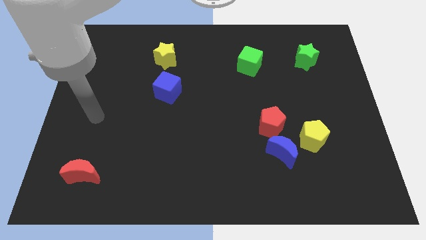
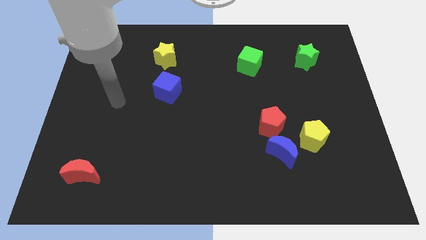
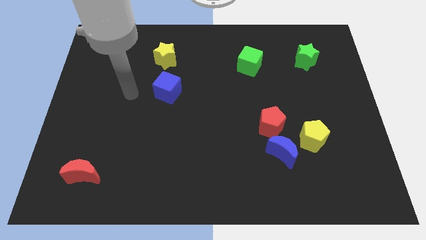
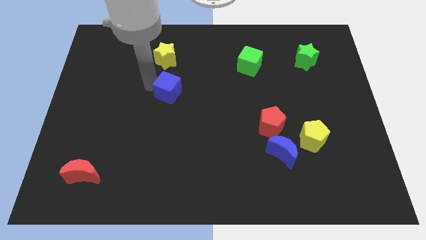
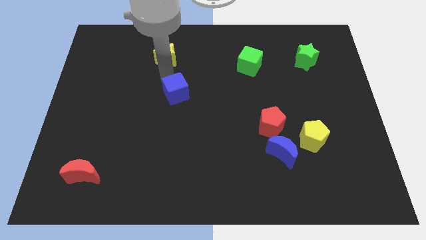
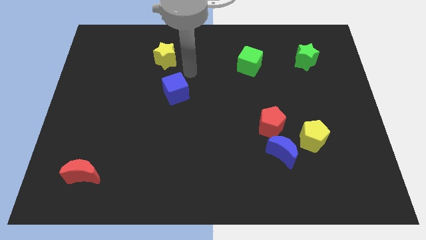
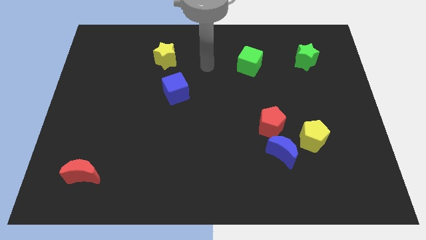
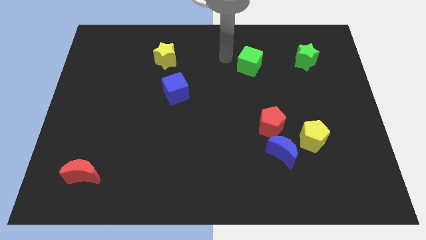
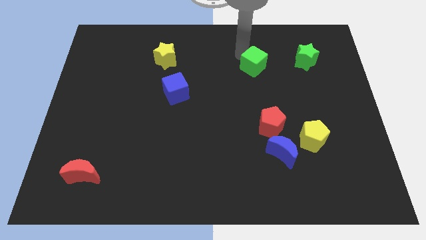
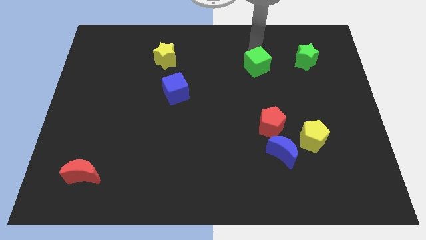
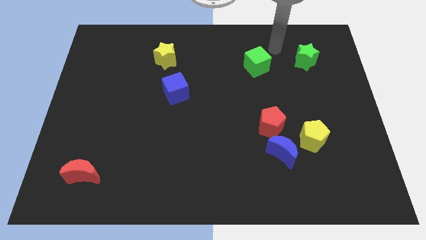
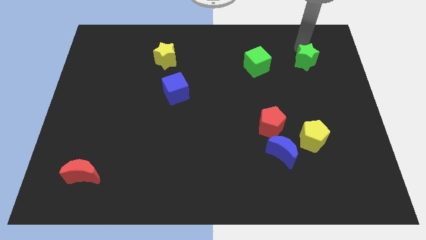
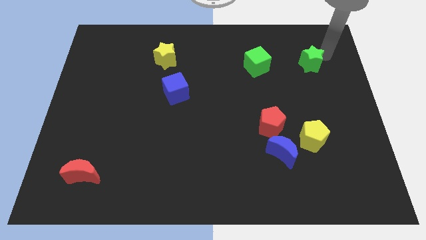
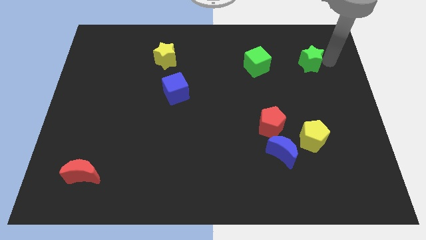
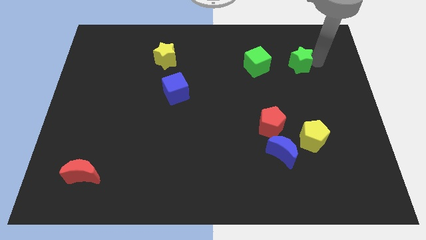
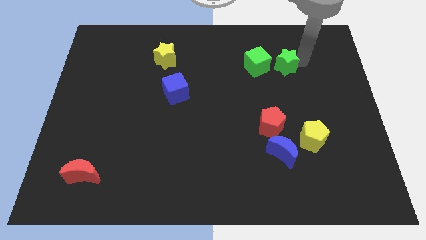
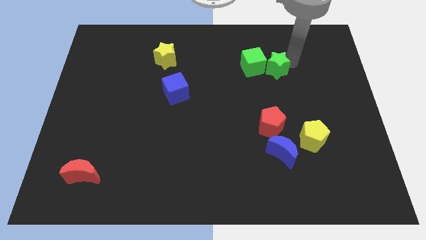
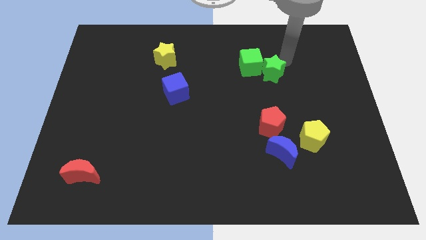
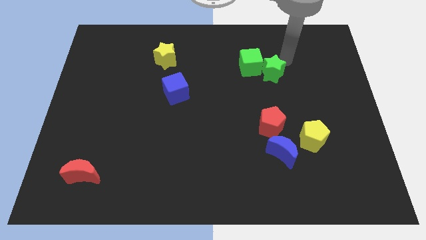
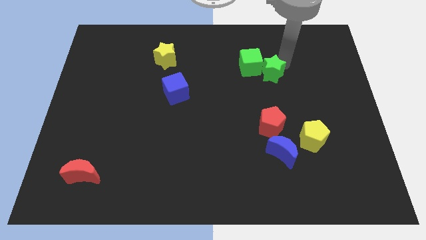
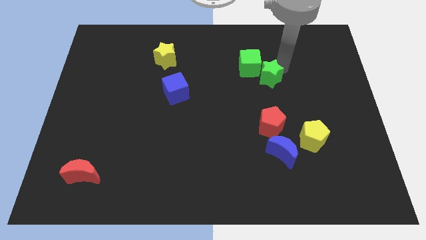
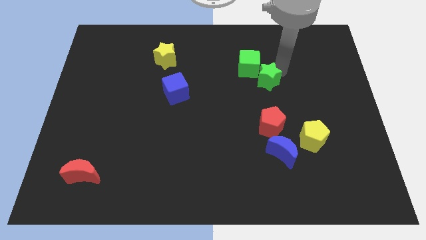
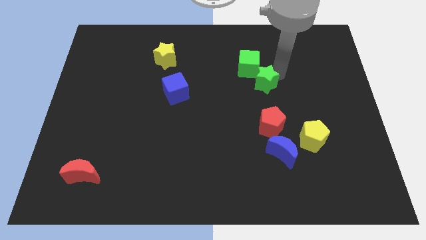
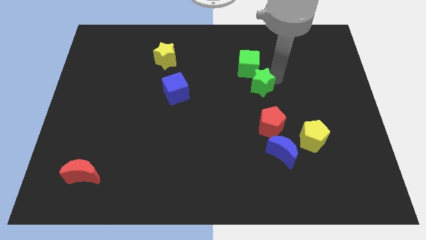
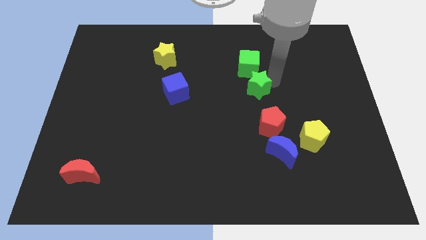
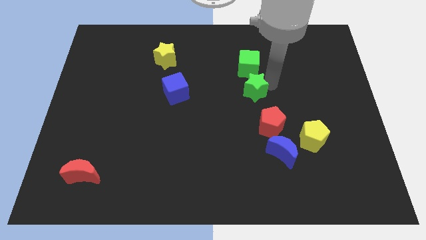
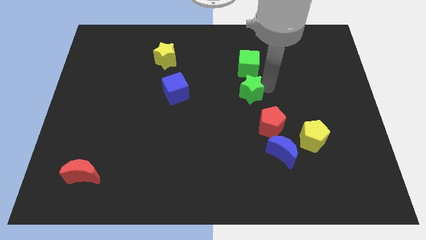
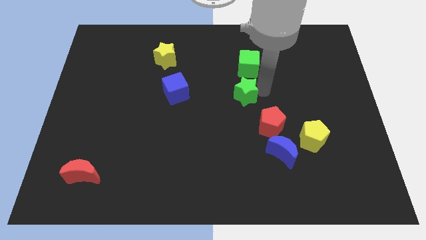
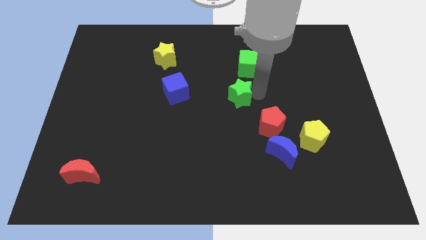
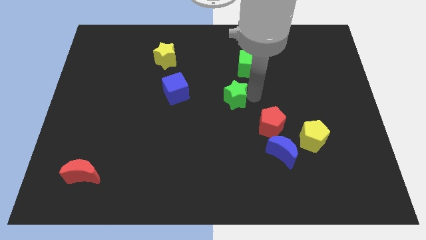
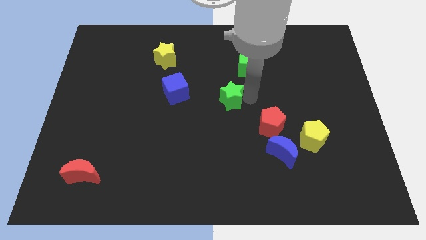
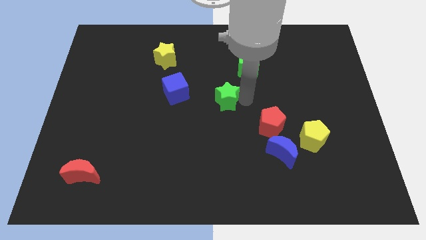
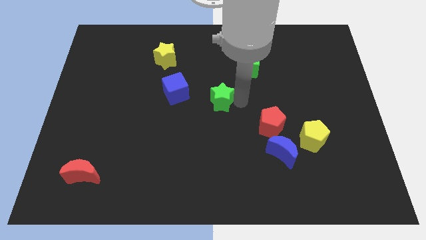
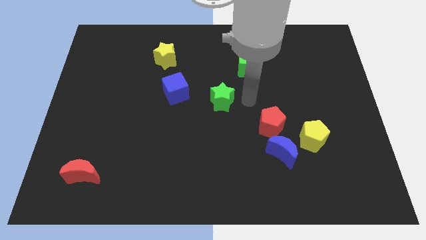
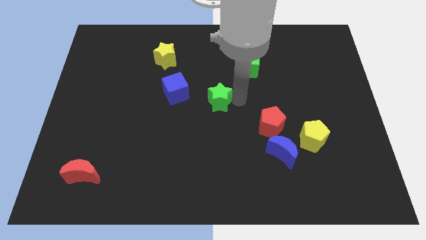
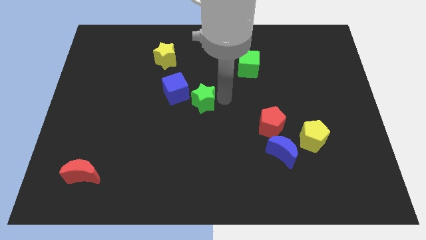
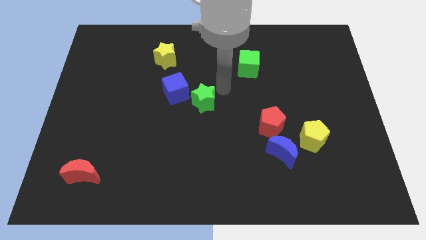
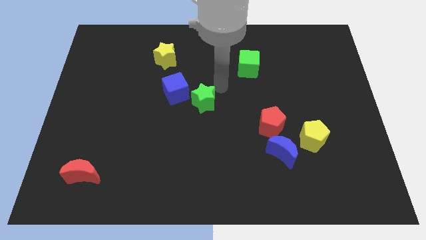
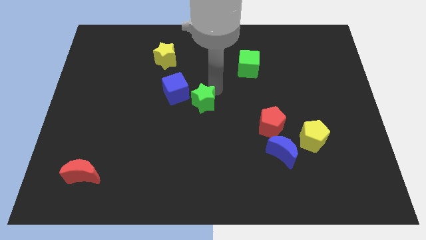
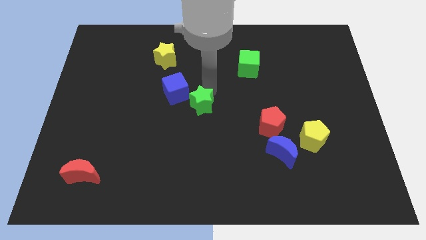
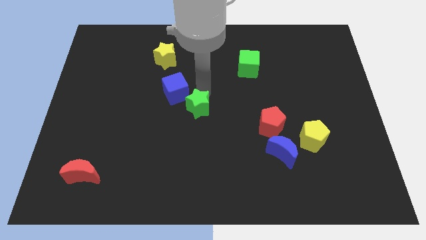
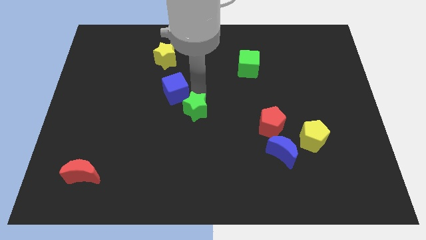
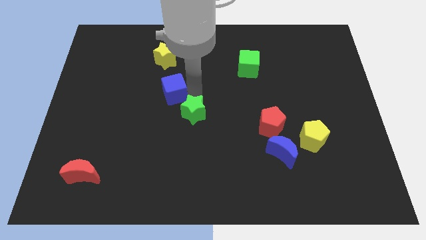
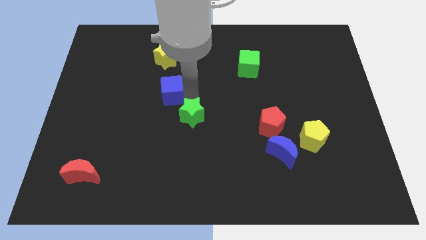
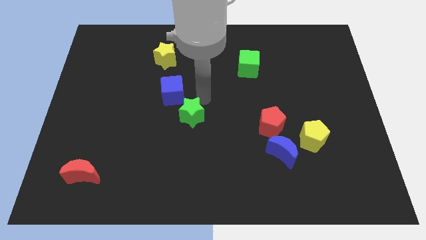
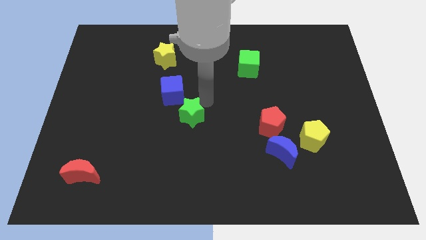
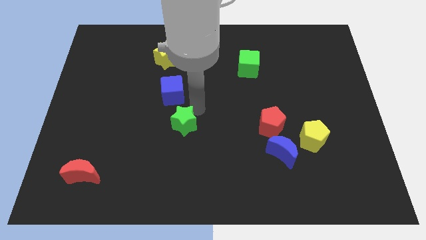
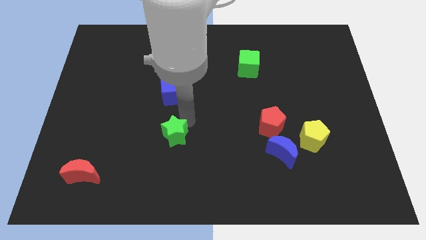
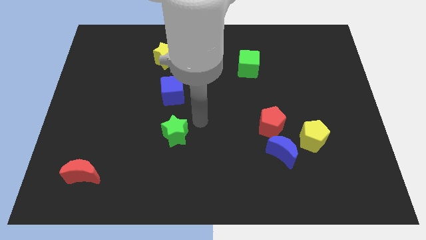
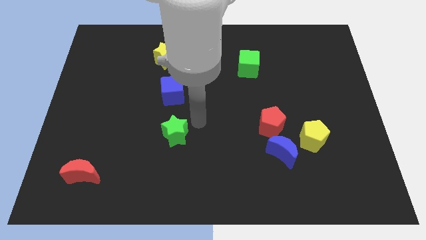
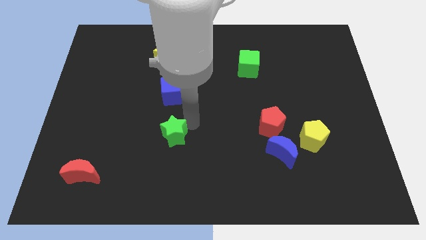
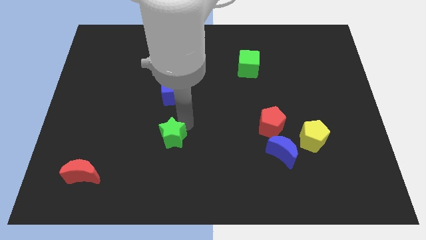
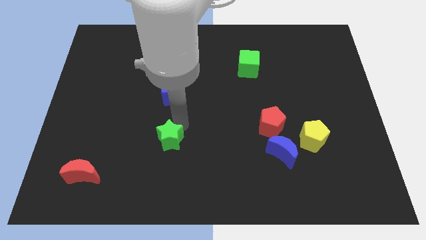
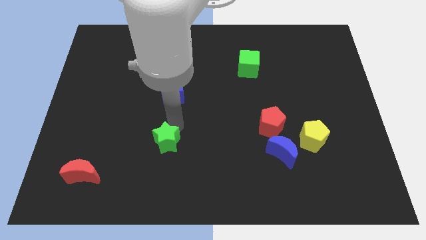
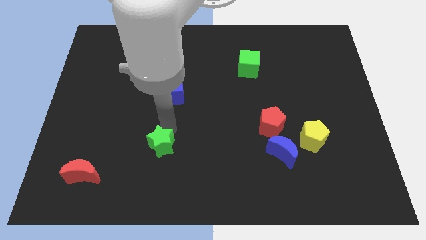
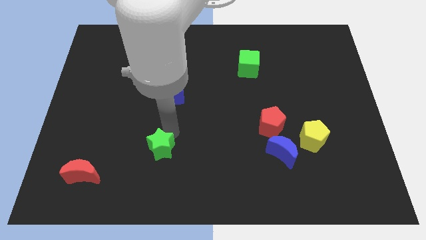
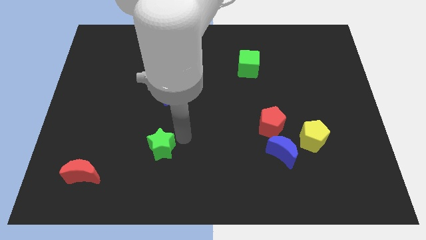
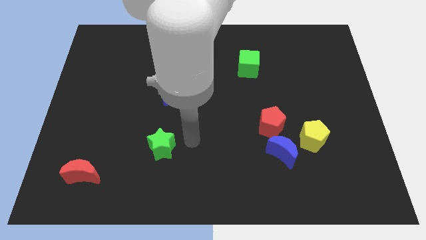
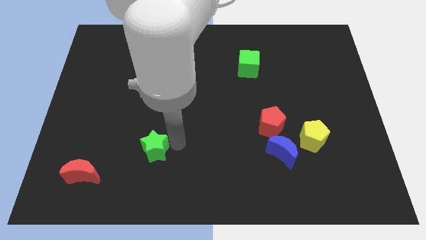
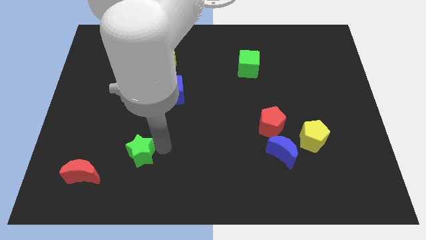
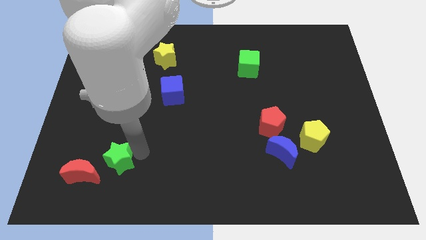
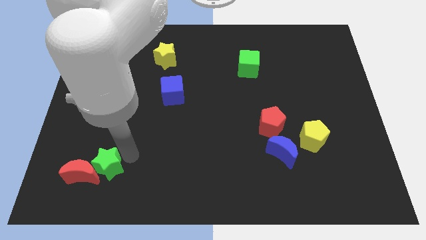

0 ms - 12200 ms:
slide the green star close to the red moon

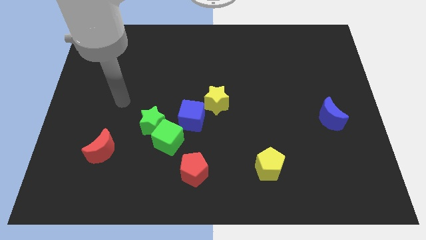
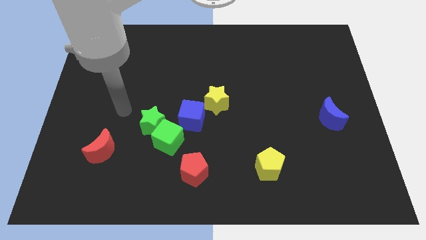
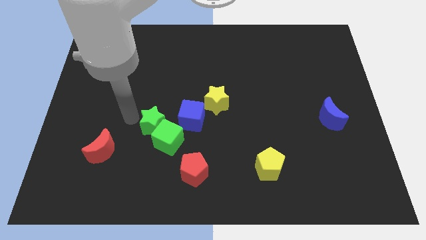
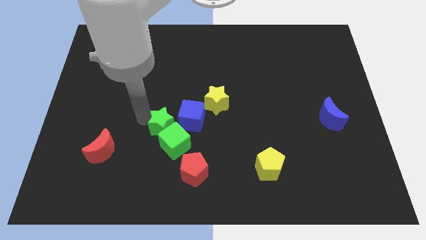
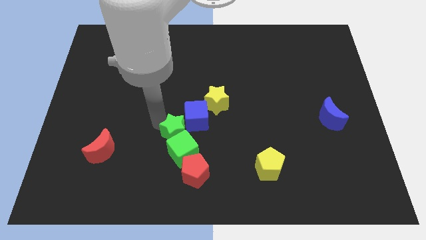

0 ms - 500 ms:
move the green cube towards the red pentagon

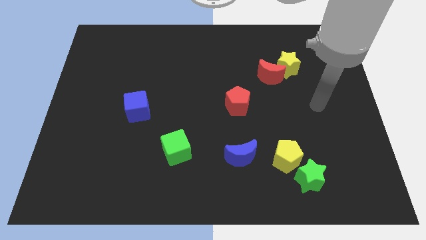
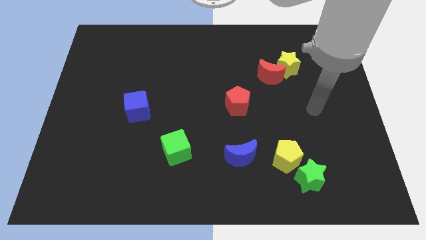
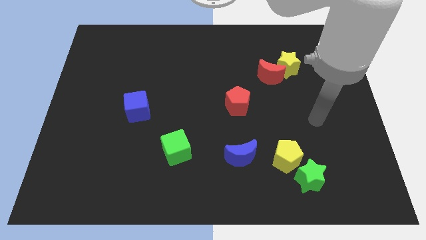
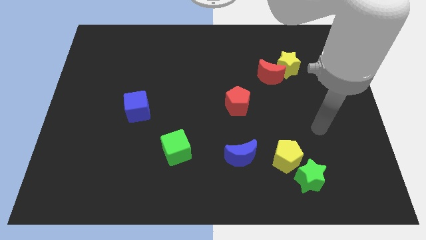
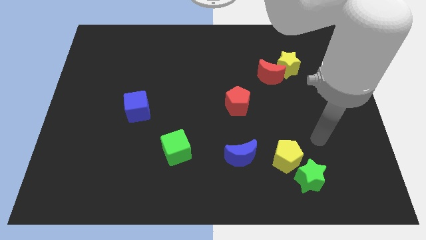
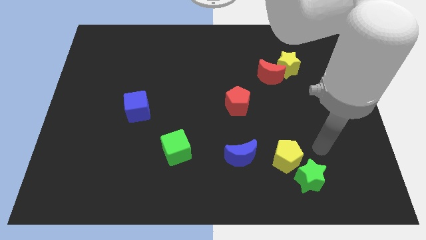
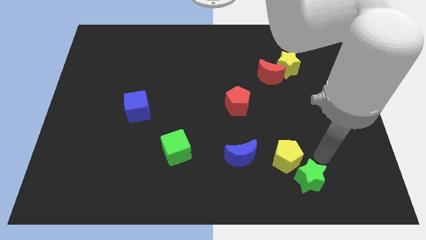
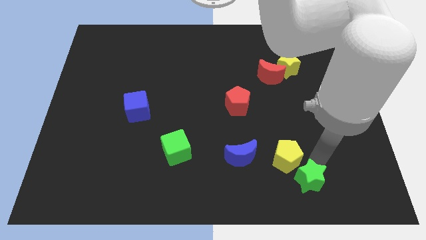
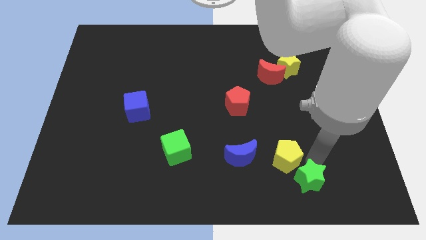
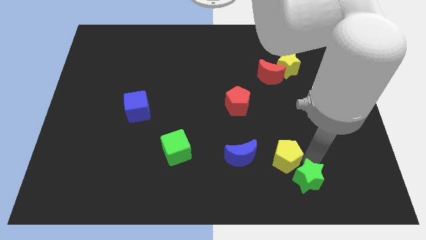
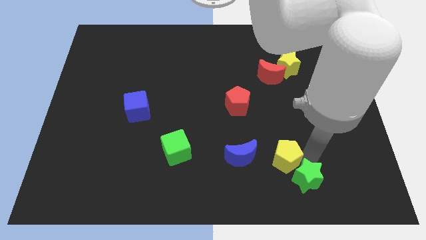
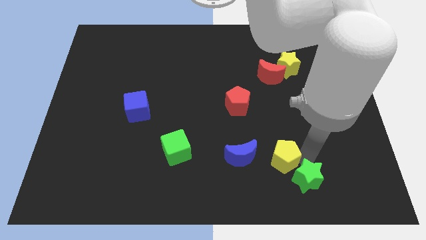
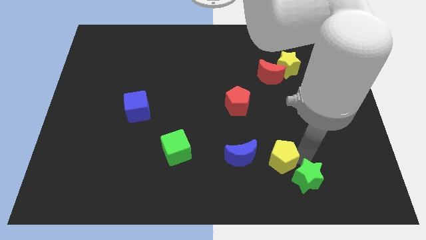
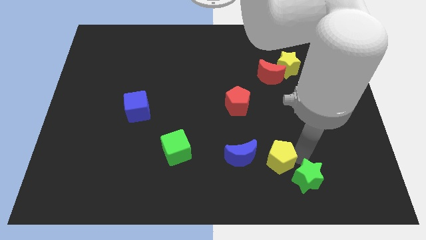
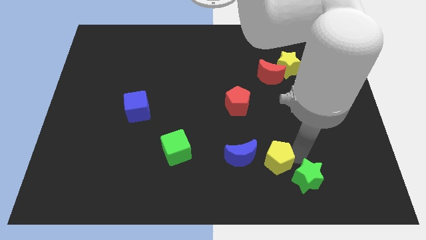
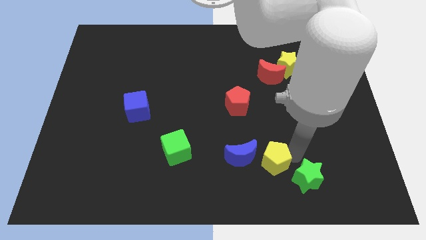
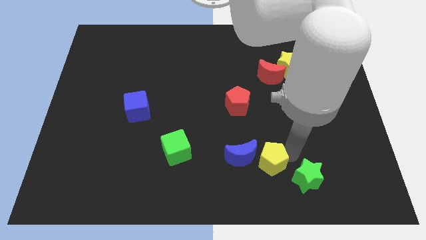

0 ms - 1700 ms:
move the yellow pentagon close to the blue moon
